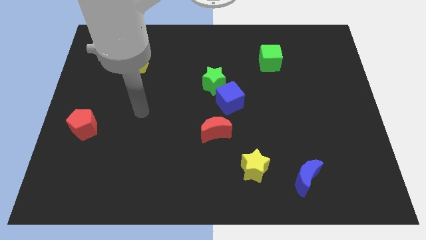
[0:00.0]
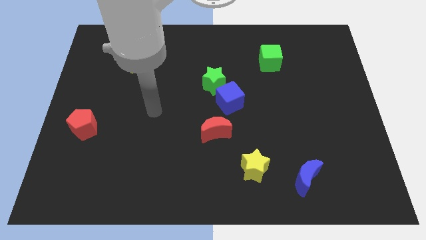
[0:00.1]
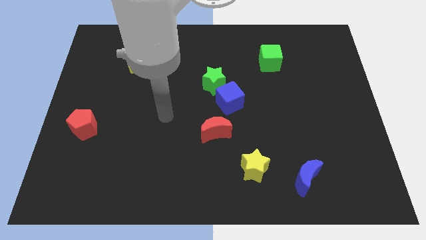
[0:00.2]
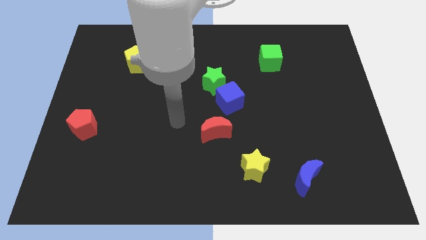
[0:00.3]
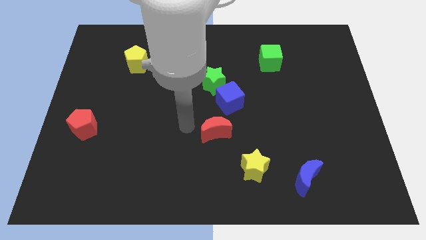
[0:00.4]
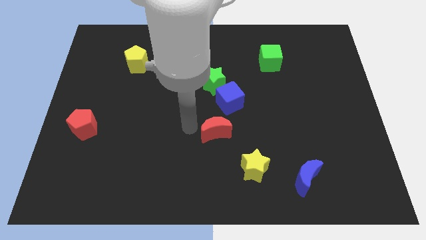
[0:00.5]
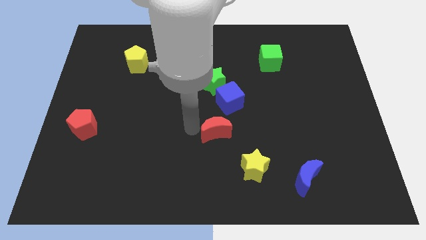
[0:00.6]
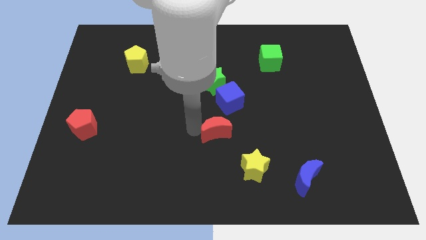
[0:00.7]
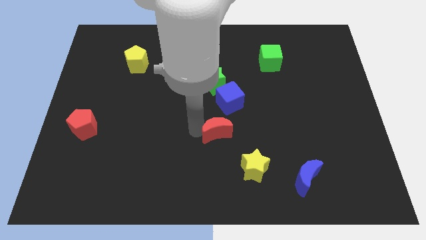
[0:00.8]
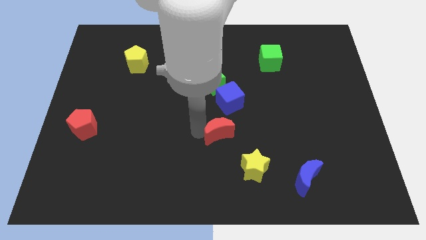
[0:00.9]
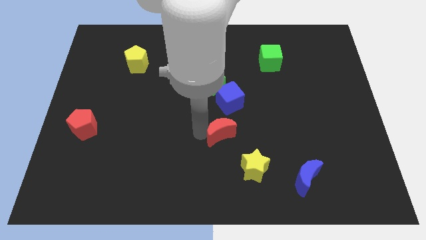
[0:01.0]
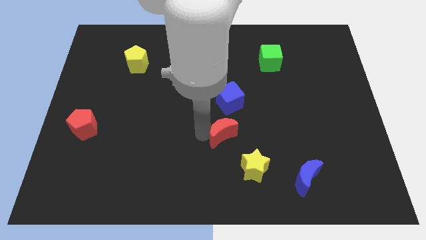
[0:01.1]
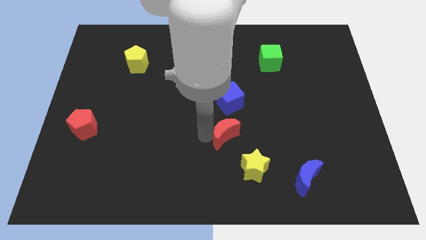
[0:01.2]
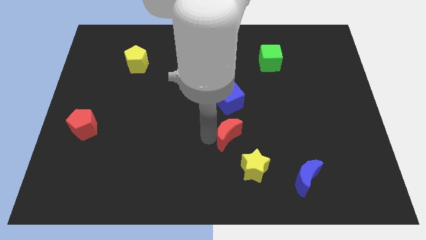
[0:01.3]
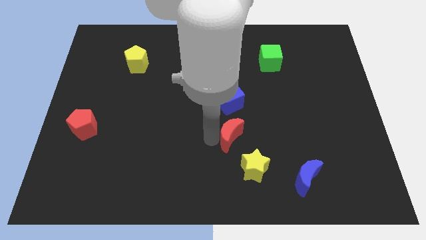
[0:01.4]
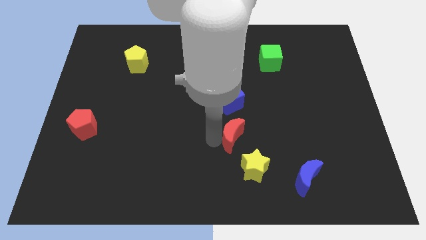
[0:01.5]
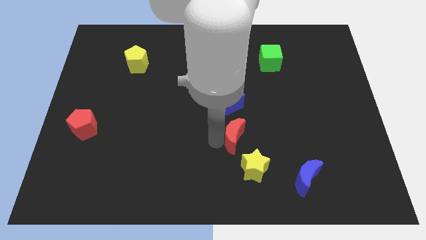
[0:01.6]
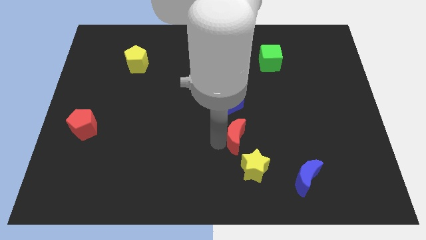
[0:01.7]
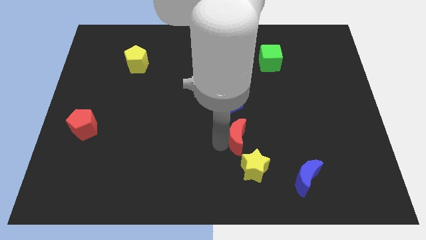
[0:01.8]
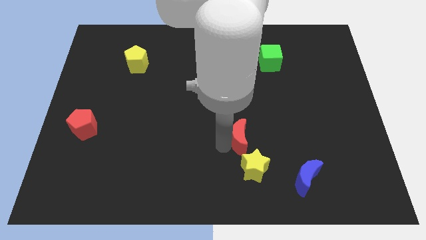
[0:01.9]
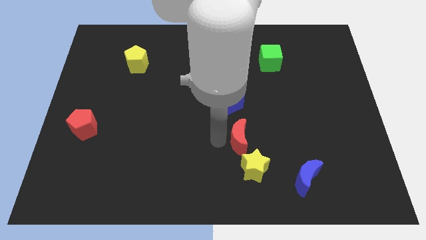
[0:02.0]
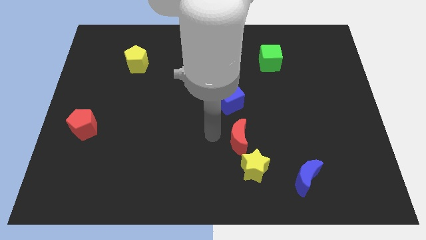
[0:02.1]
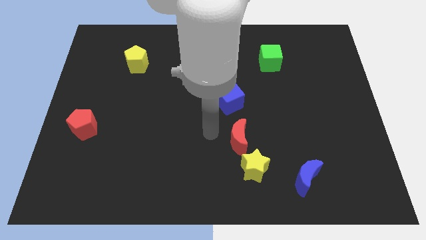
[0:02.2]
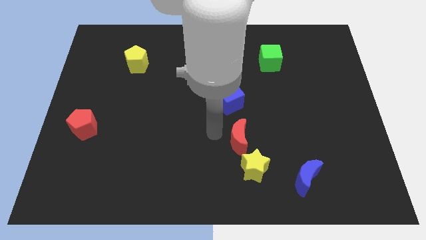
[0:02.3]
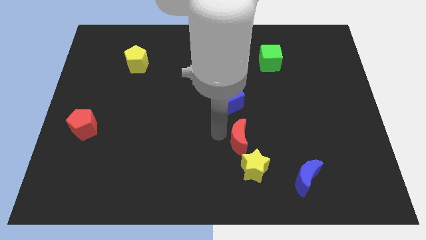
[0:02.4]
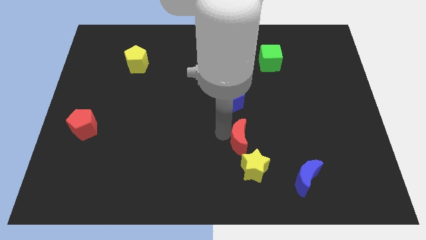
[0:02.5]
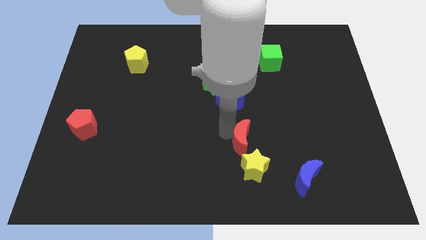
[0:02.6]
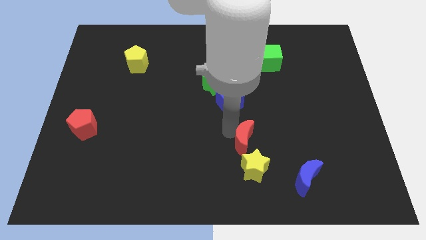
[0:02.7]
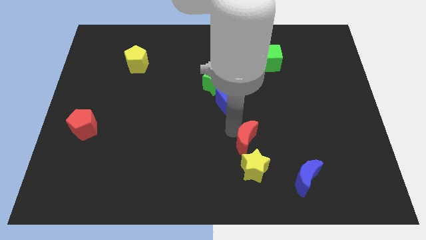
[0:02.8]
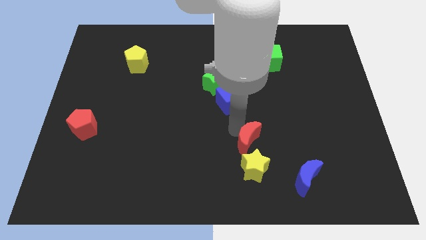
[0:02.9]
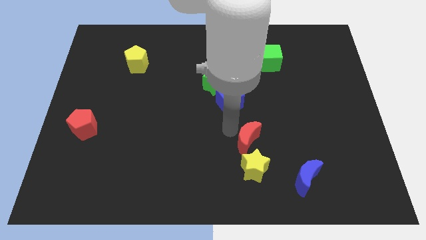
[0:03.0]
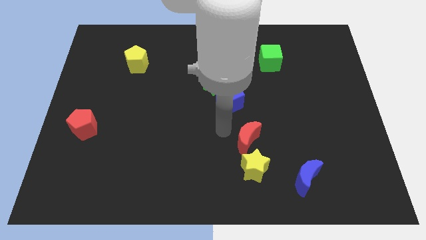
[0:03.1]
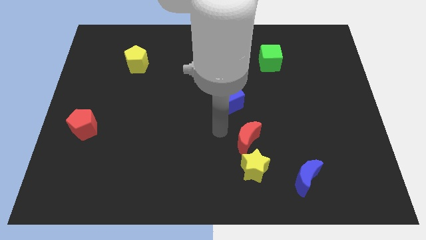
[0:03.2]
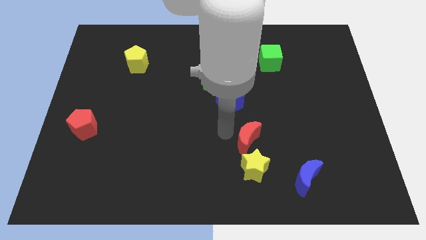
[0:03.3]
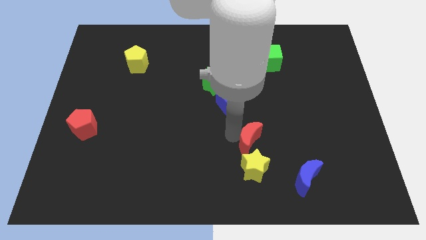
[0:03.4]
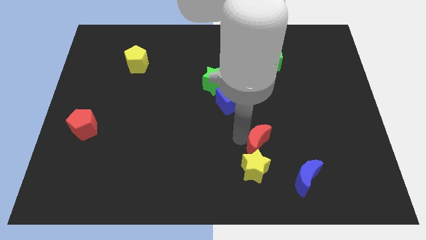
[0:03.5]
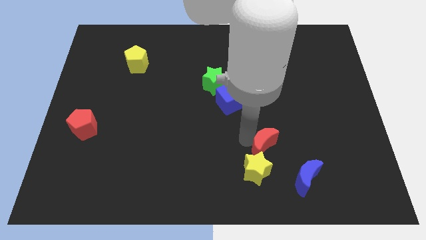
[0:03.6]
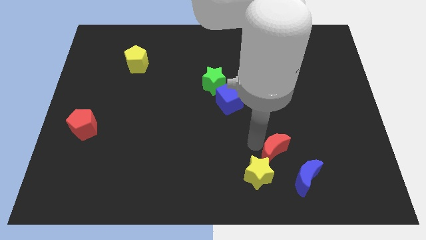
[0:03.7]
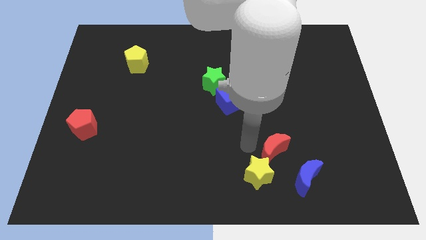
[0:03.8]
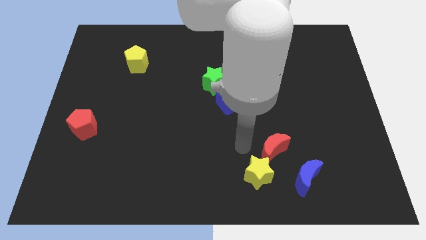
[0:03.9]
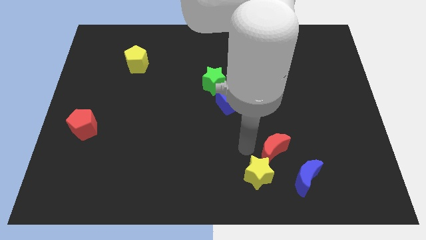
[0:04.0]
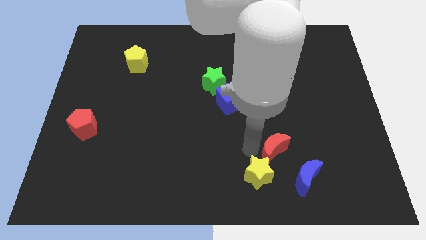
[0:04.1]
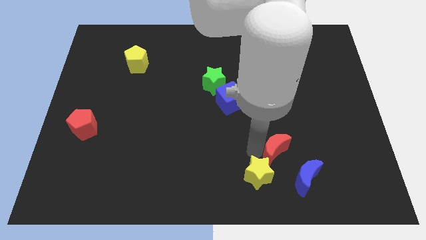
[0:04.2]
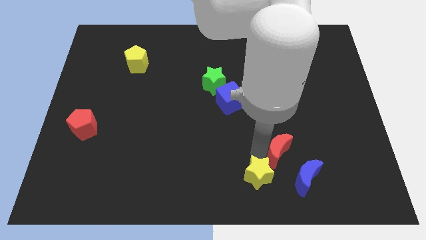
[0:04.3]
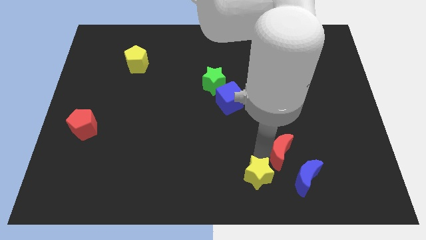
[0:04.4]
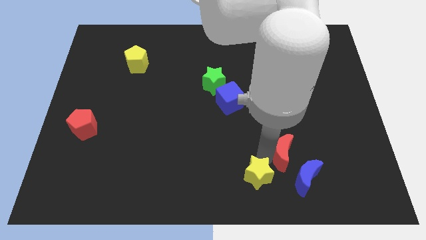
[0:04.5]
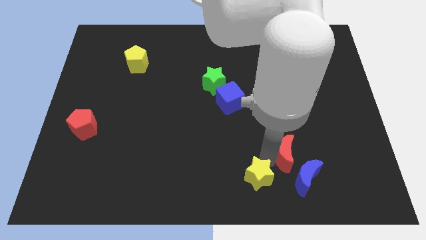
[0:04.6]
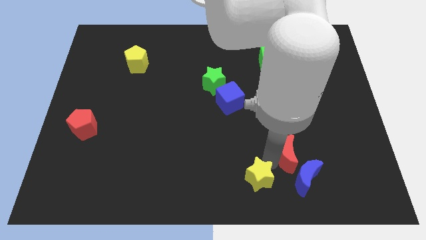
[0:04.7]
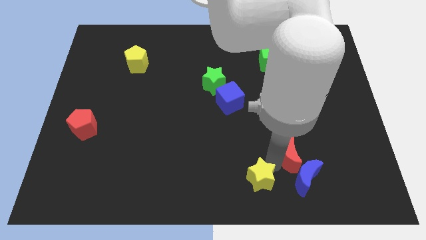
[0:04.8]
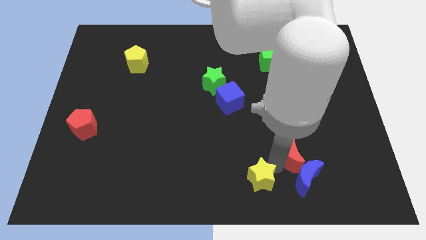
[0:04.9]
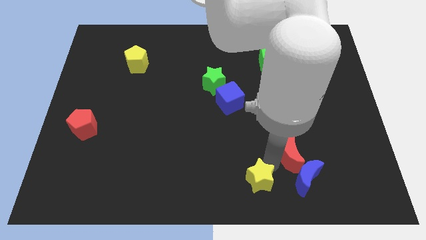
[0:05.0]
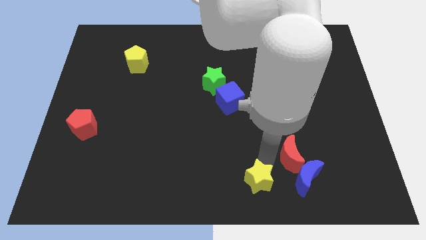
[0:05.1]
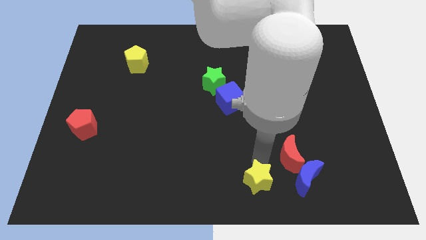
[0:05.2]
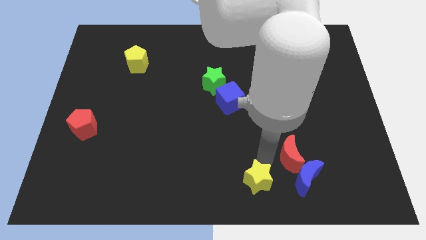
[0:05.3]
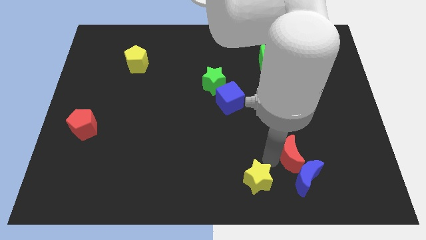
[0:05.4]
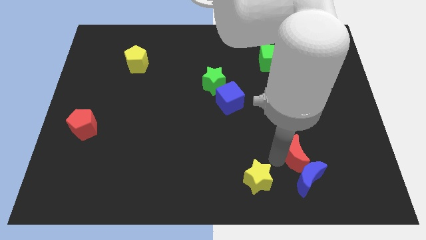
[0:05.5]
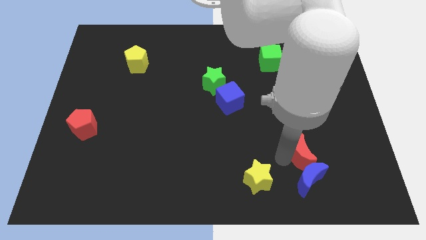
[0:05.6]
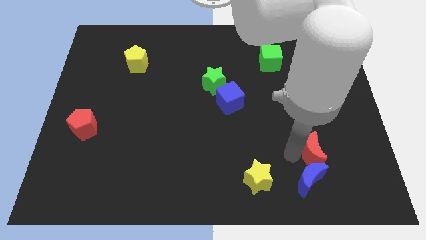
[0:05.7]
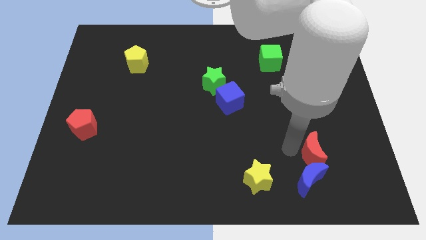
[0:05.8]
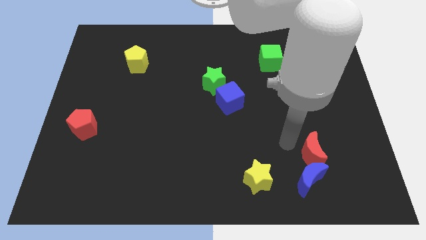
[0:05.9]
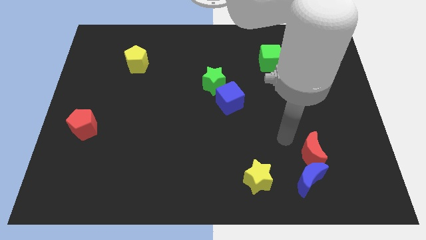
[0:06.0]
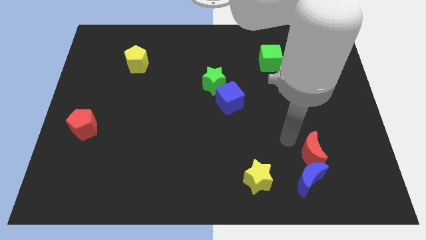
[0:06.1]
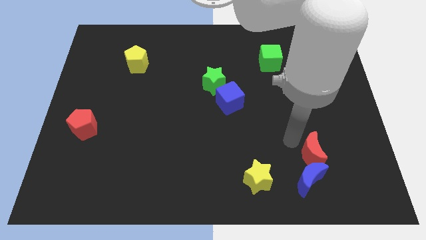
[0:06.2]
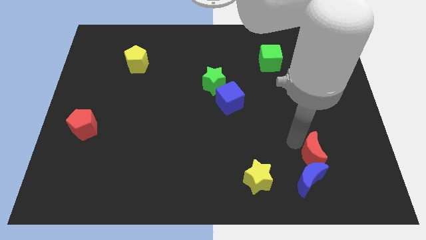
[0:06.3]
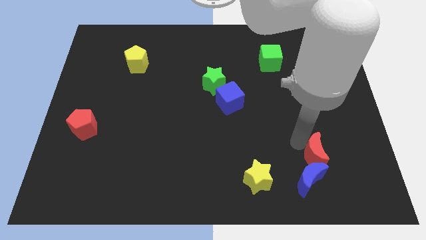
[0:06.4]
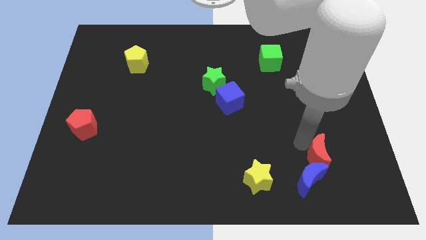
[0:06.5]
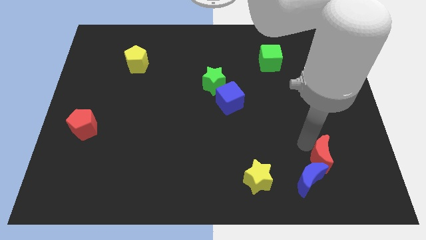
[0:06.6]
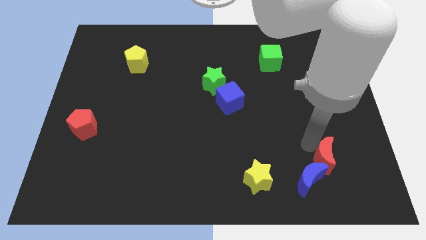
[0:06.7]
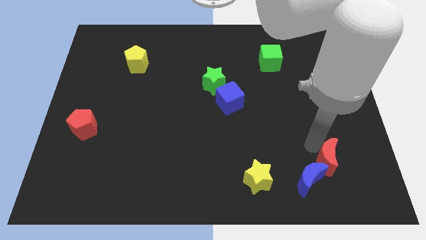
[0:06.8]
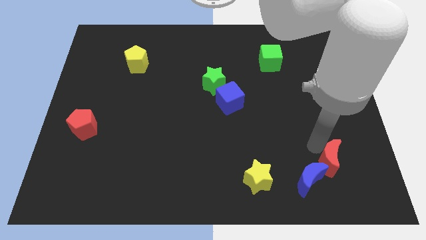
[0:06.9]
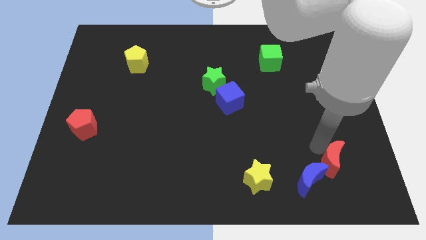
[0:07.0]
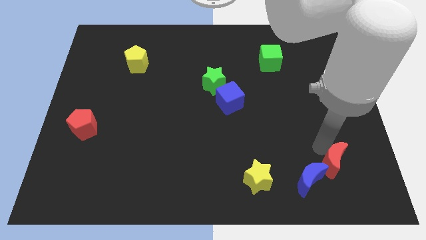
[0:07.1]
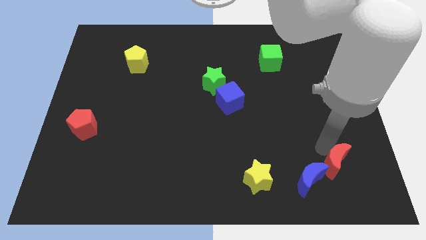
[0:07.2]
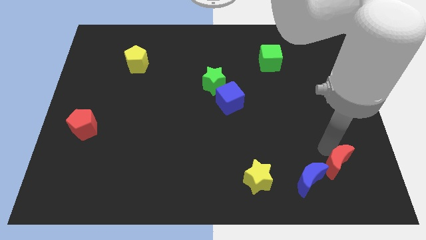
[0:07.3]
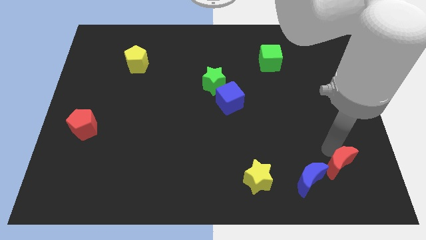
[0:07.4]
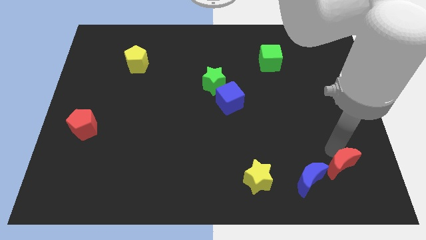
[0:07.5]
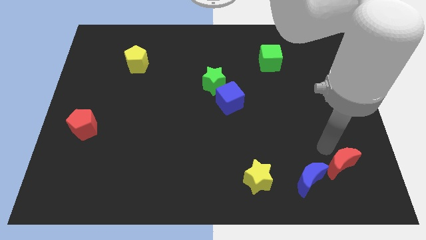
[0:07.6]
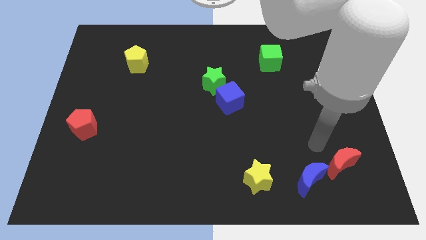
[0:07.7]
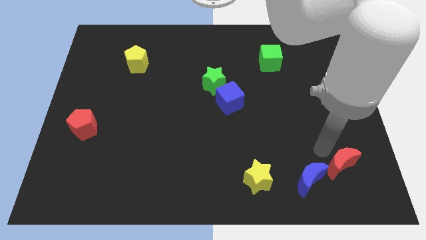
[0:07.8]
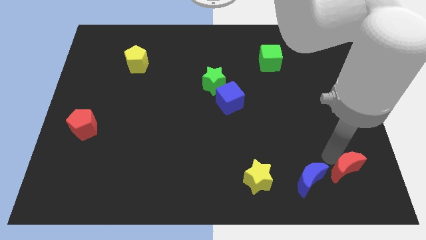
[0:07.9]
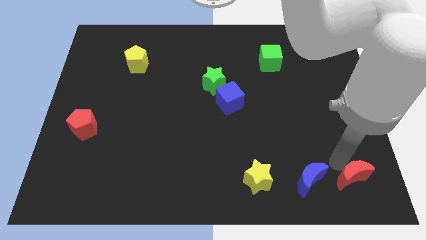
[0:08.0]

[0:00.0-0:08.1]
move the red moon to the bottom right corner
